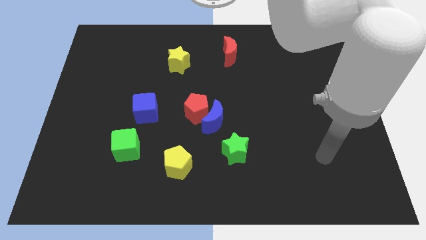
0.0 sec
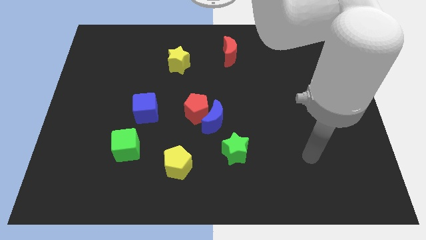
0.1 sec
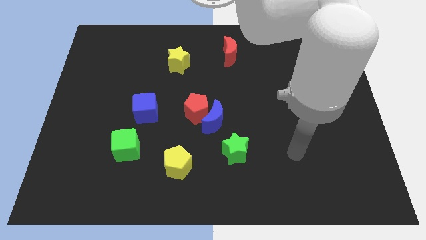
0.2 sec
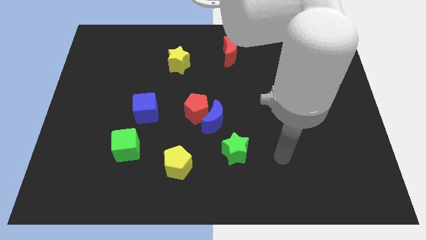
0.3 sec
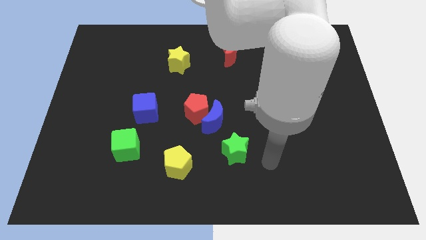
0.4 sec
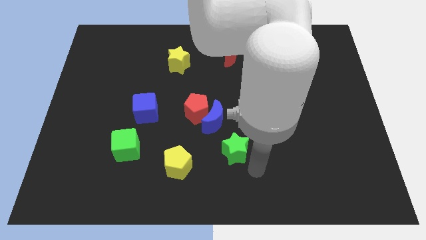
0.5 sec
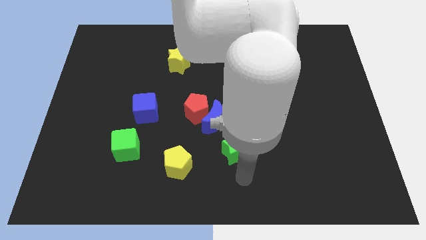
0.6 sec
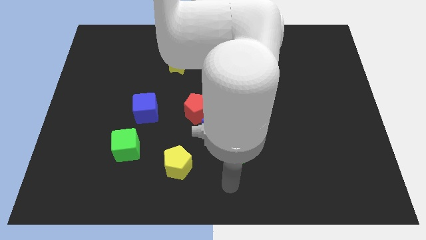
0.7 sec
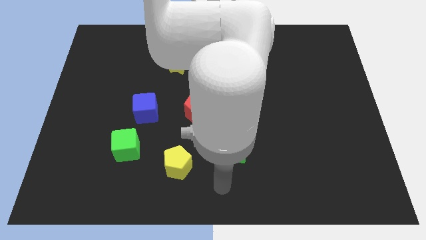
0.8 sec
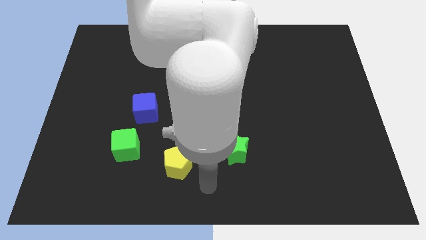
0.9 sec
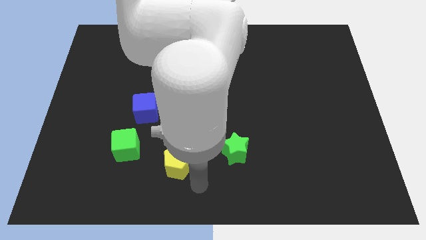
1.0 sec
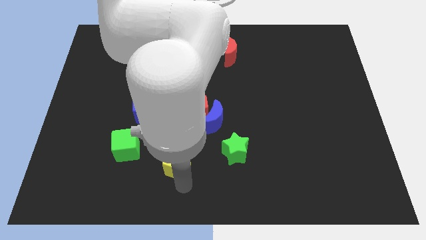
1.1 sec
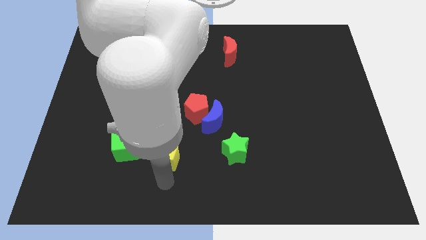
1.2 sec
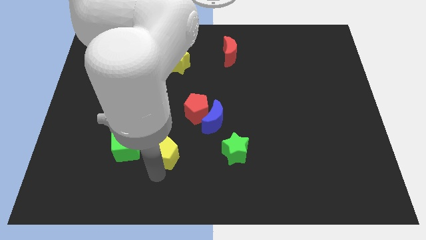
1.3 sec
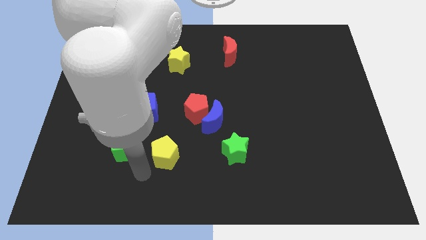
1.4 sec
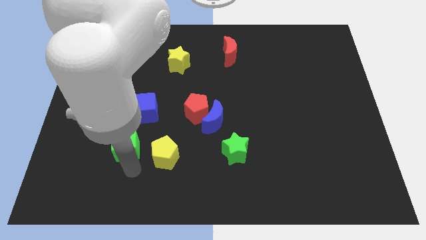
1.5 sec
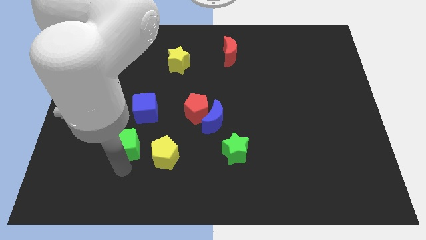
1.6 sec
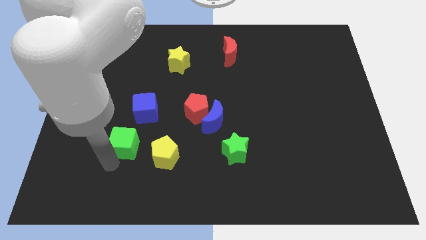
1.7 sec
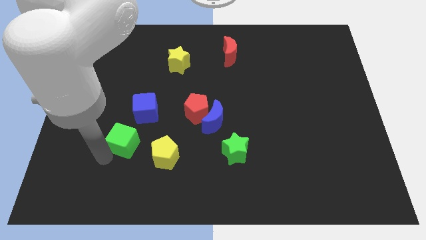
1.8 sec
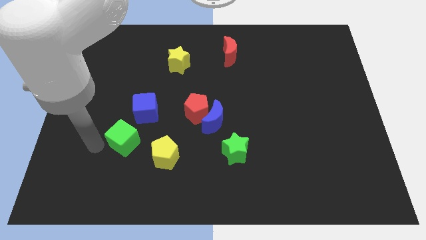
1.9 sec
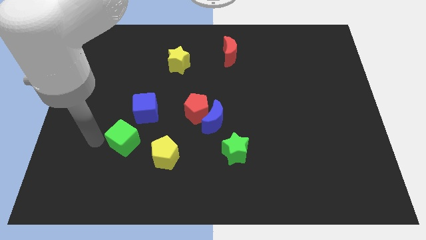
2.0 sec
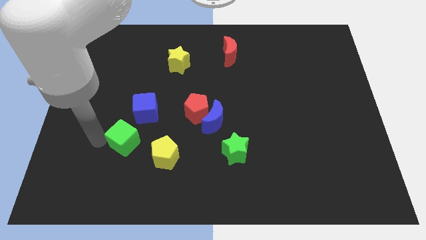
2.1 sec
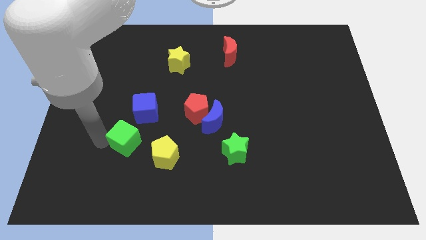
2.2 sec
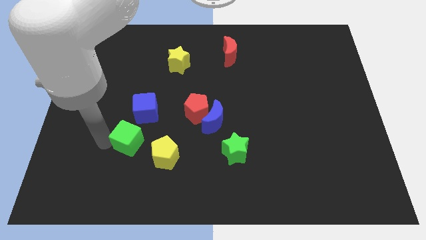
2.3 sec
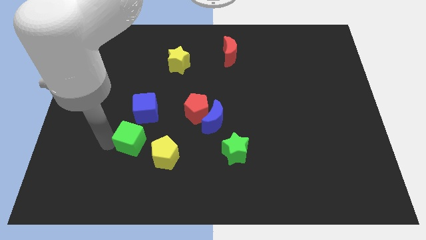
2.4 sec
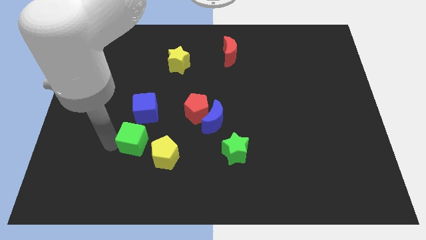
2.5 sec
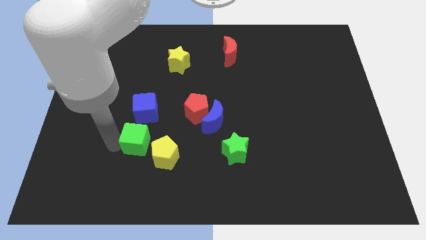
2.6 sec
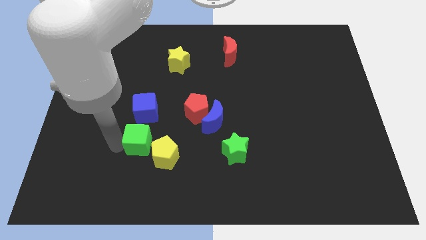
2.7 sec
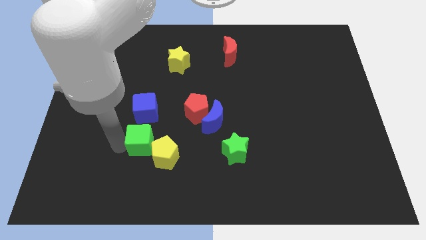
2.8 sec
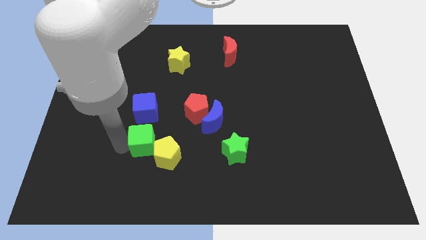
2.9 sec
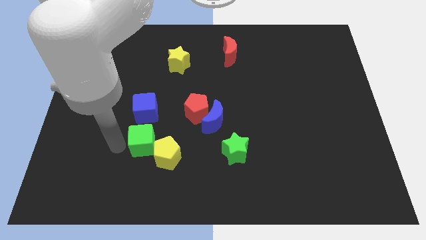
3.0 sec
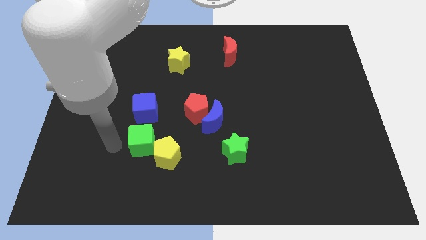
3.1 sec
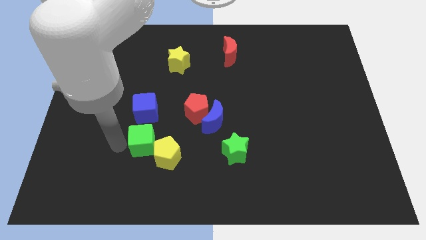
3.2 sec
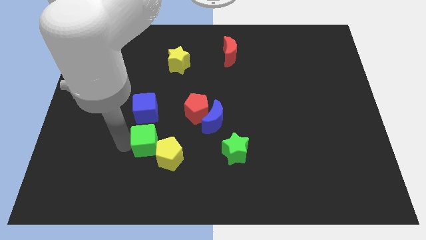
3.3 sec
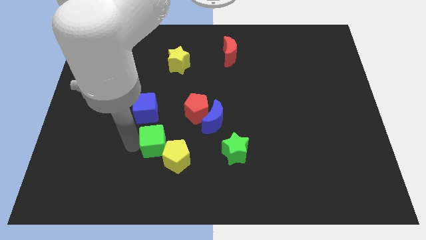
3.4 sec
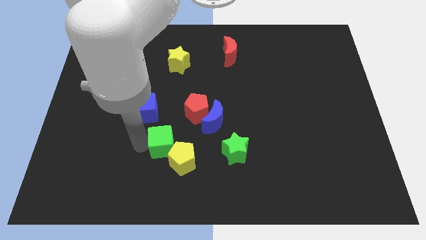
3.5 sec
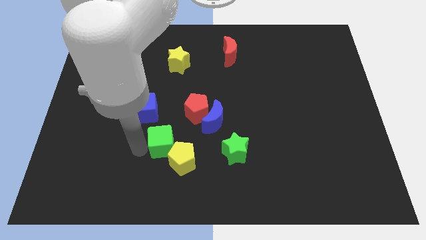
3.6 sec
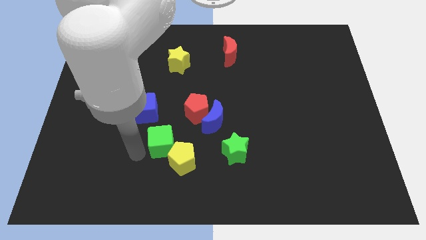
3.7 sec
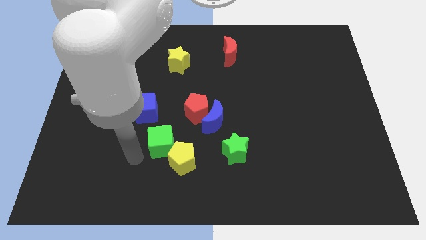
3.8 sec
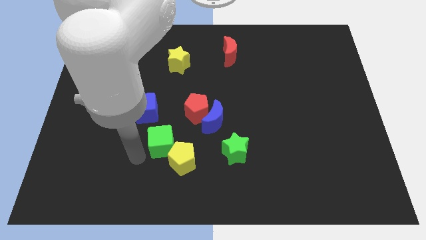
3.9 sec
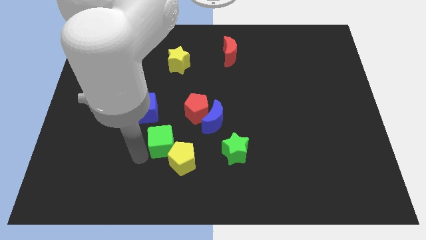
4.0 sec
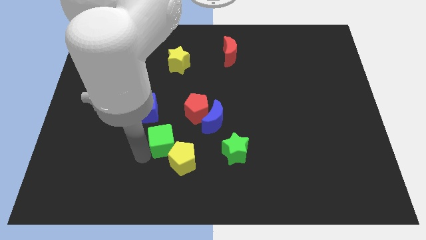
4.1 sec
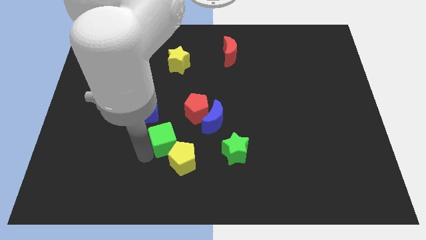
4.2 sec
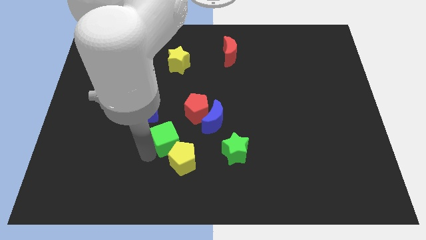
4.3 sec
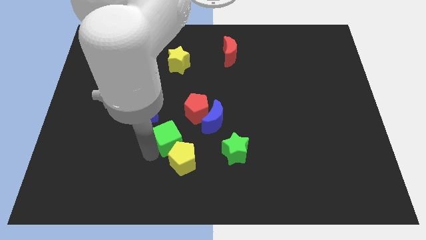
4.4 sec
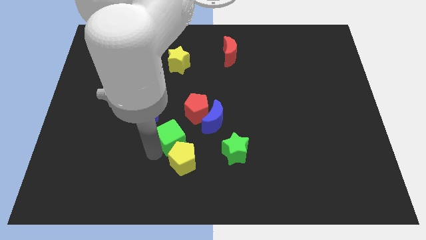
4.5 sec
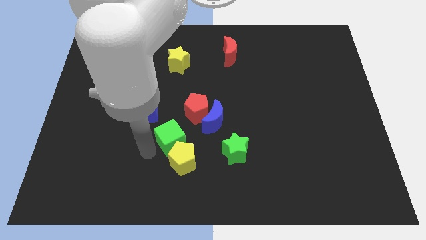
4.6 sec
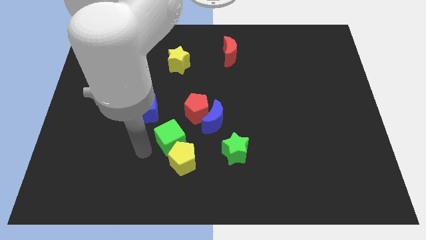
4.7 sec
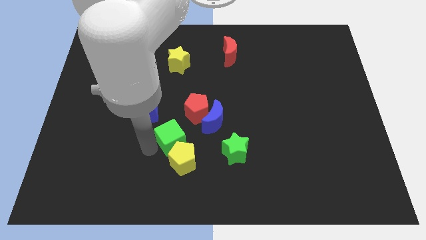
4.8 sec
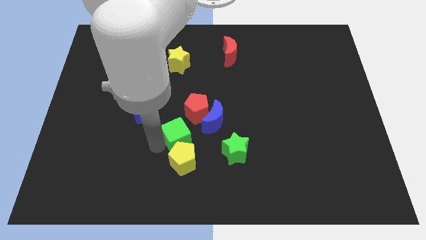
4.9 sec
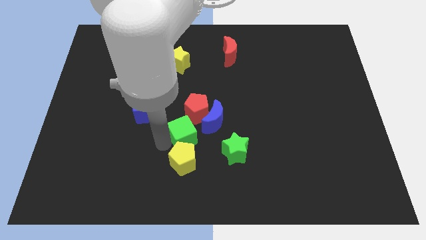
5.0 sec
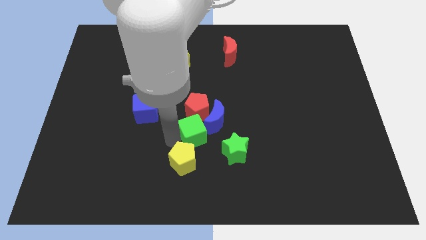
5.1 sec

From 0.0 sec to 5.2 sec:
move the green cube to the blue moon

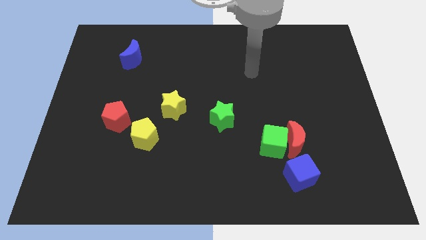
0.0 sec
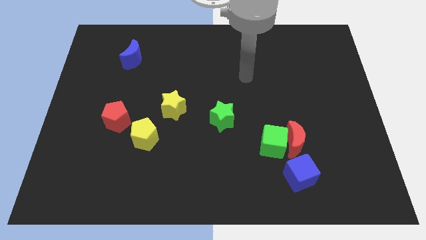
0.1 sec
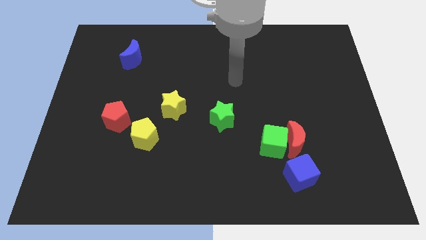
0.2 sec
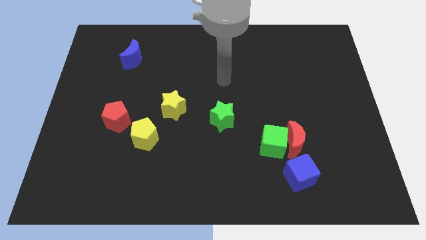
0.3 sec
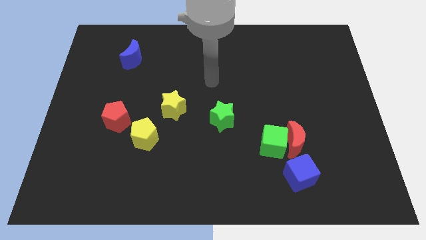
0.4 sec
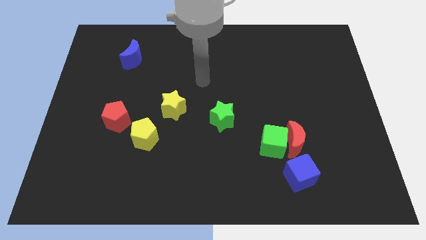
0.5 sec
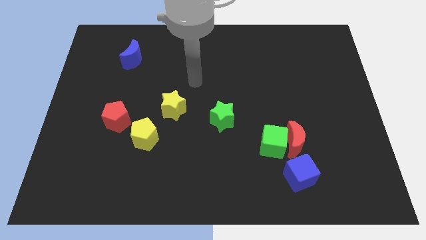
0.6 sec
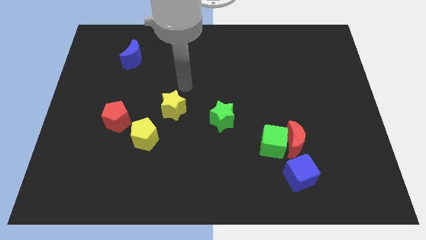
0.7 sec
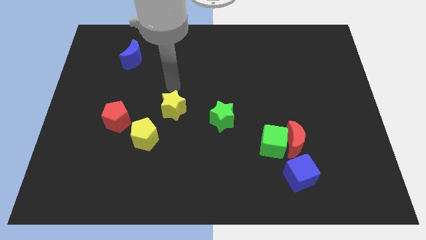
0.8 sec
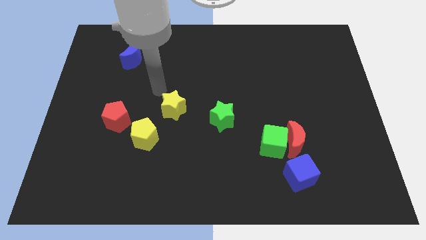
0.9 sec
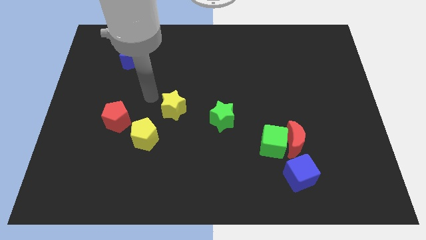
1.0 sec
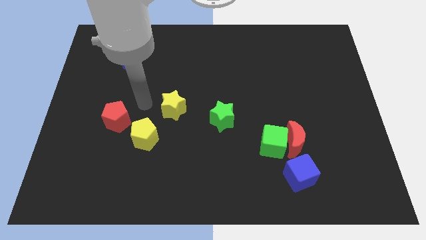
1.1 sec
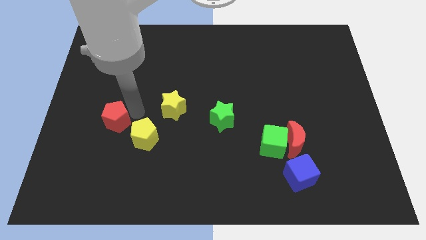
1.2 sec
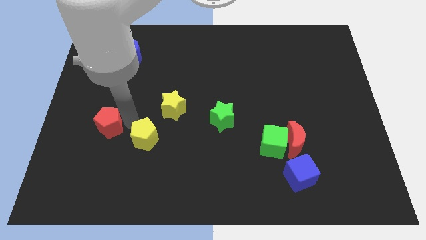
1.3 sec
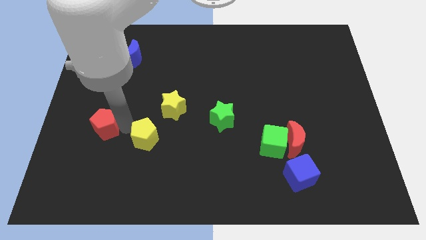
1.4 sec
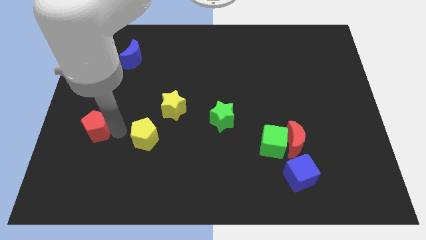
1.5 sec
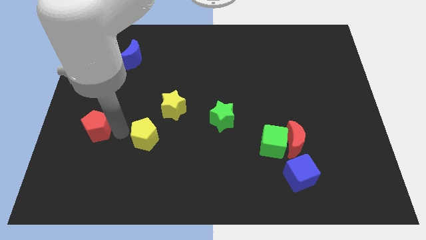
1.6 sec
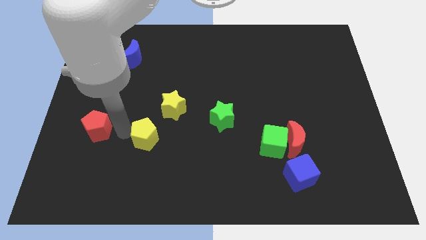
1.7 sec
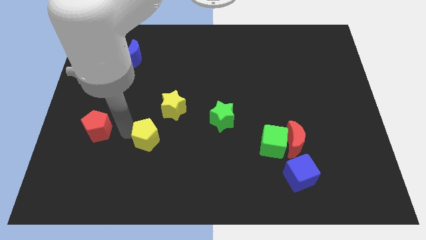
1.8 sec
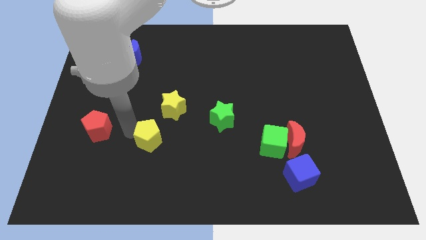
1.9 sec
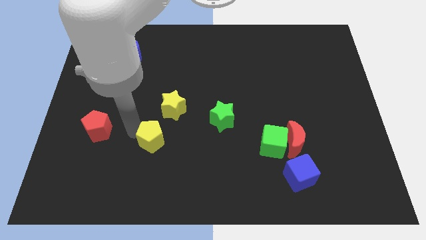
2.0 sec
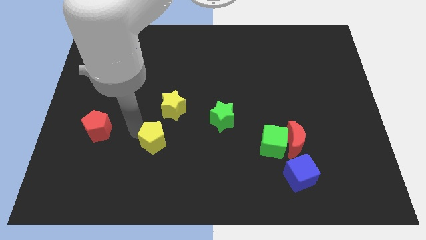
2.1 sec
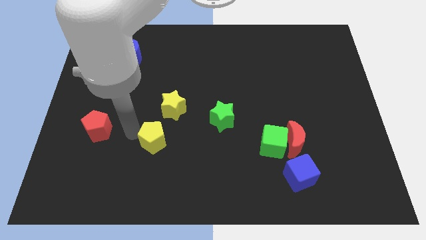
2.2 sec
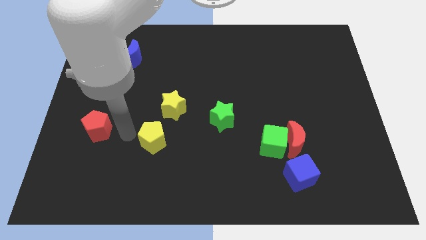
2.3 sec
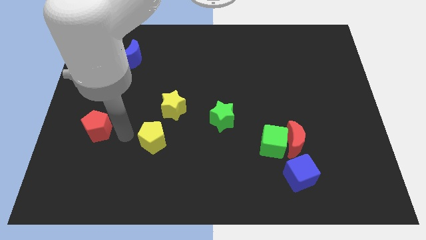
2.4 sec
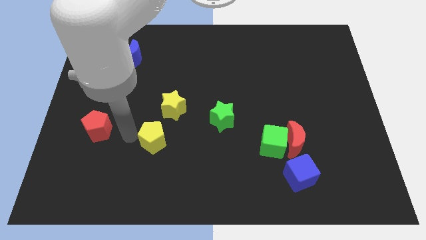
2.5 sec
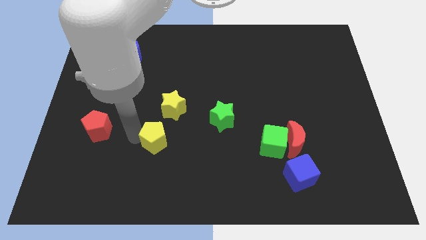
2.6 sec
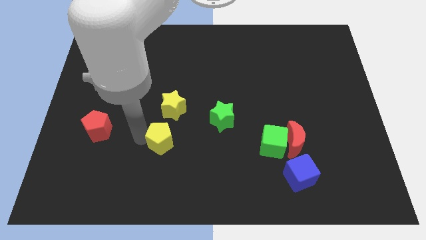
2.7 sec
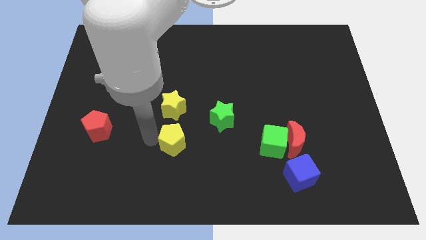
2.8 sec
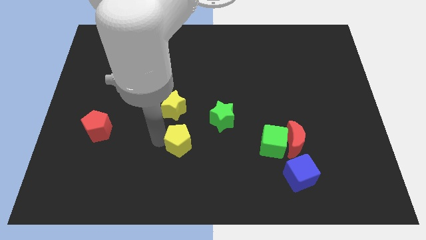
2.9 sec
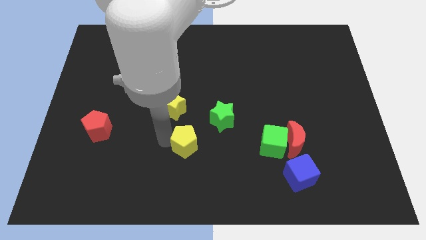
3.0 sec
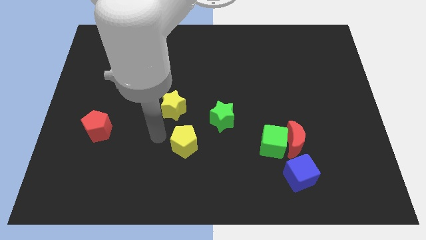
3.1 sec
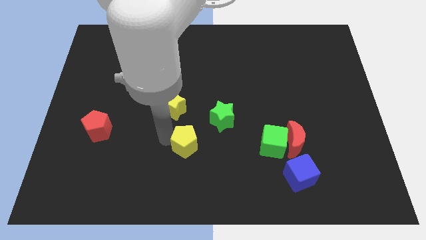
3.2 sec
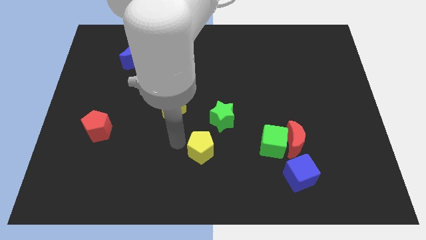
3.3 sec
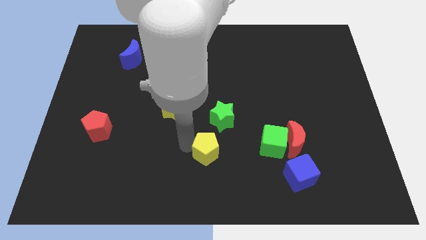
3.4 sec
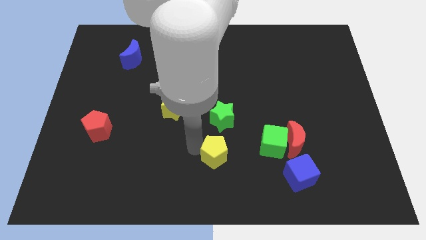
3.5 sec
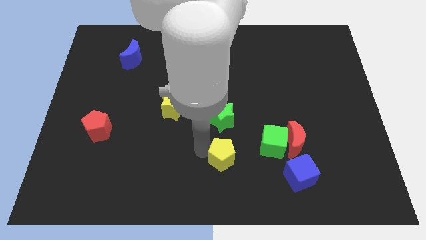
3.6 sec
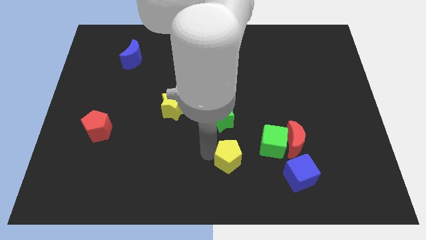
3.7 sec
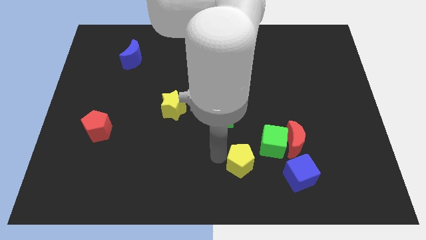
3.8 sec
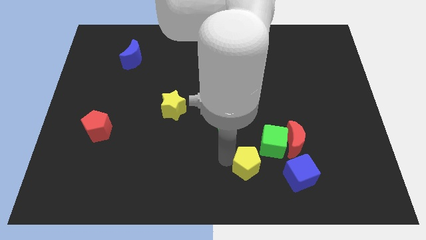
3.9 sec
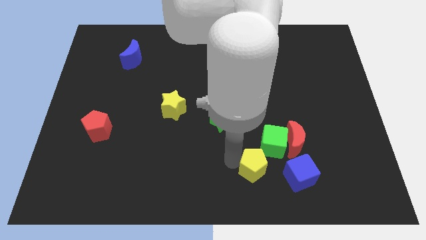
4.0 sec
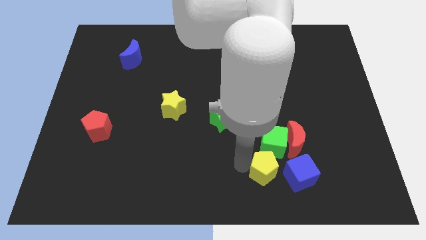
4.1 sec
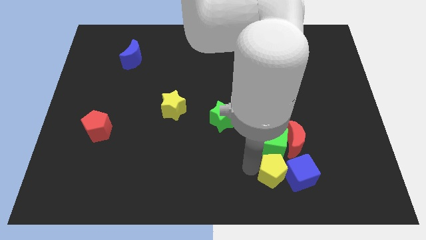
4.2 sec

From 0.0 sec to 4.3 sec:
put the yellow pentagon next to the blue cube
